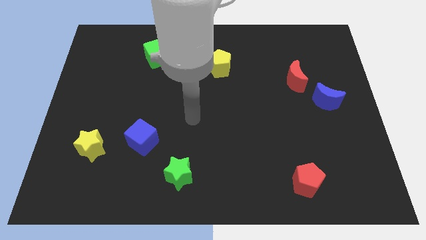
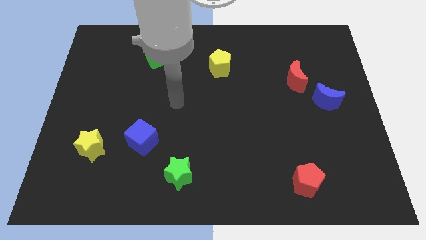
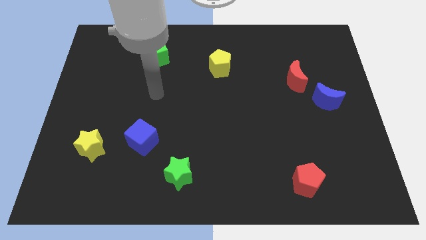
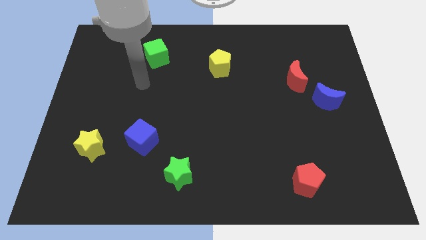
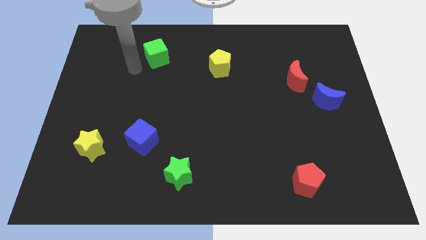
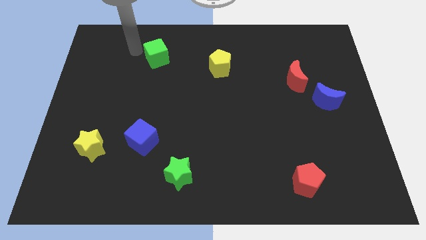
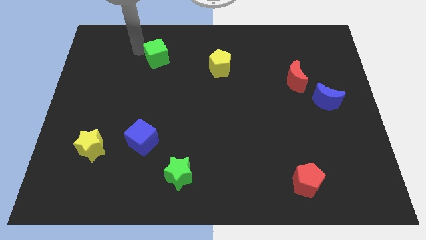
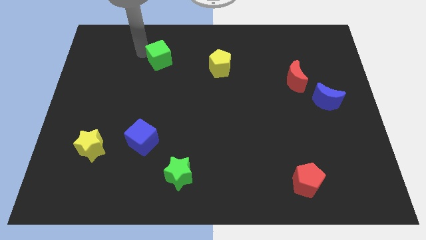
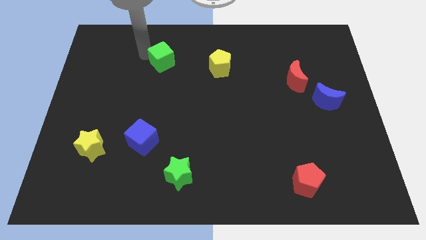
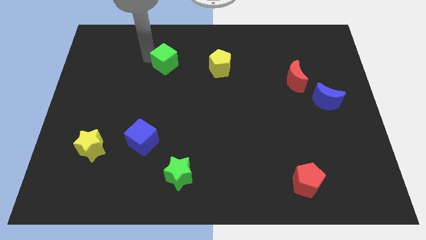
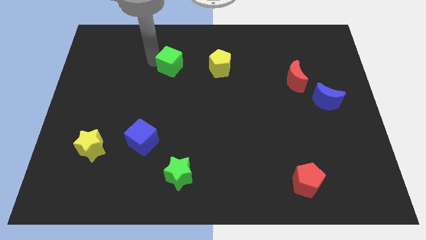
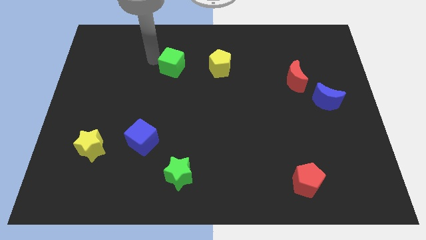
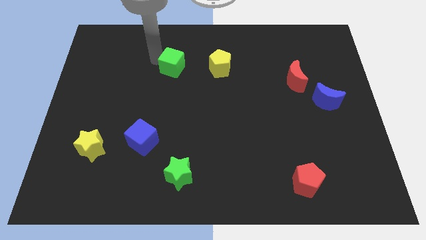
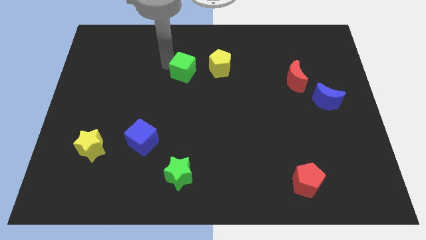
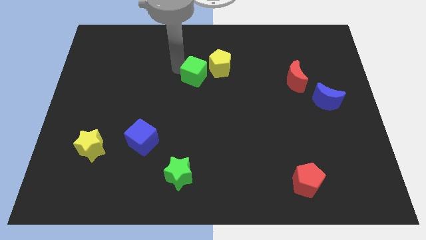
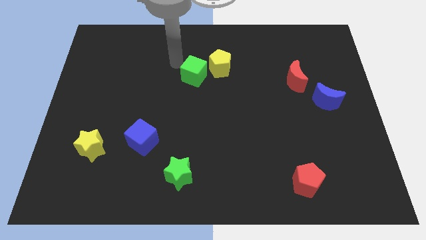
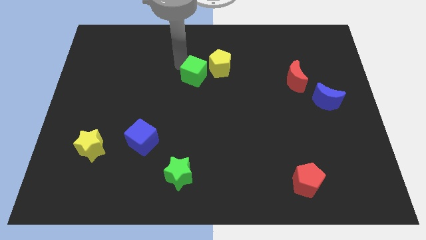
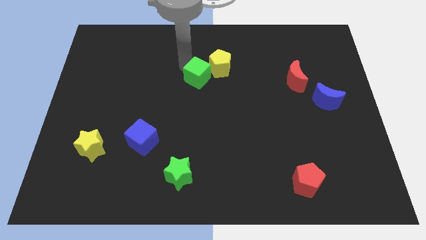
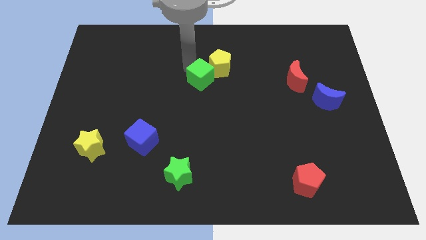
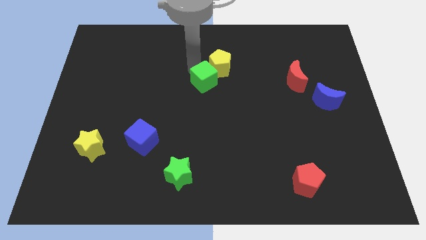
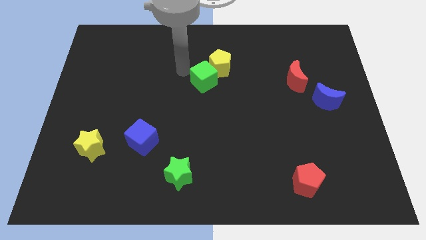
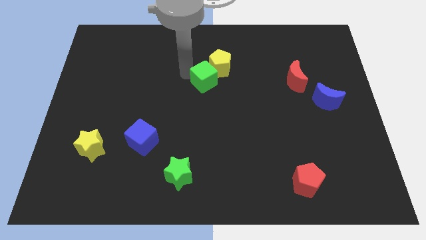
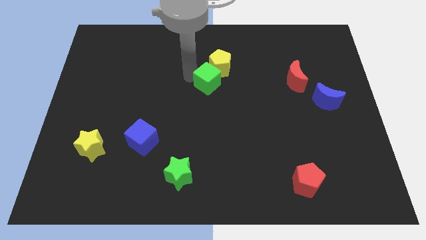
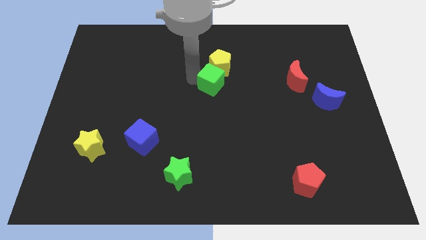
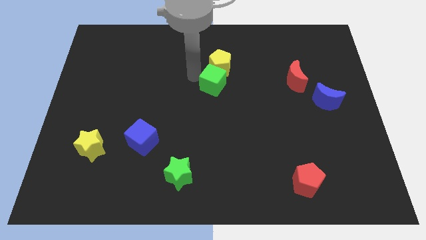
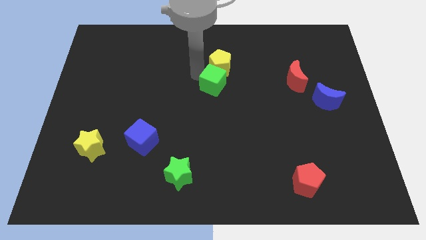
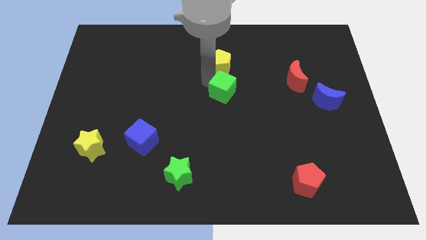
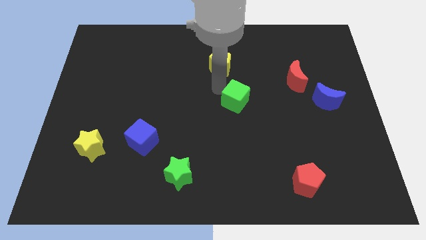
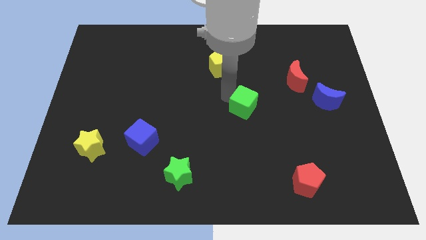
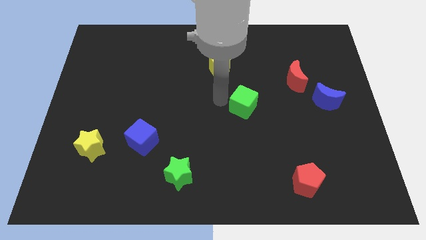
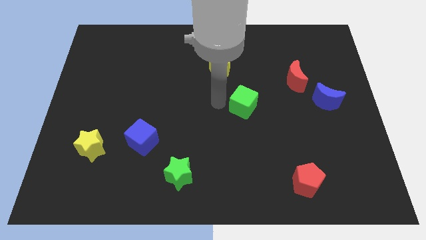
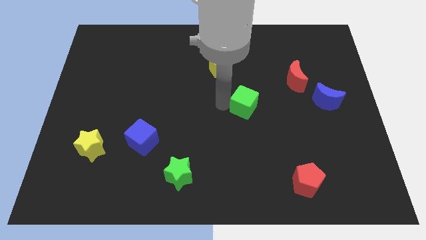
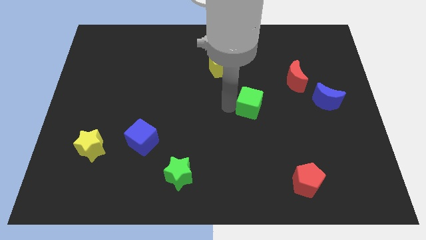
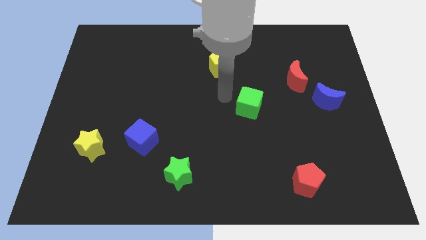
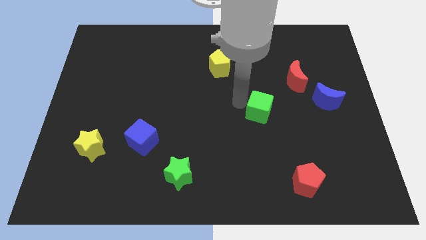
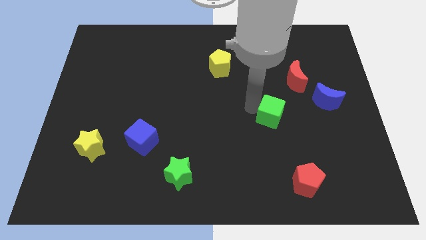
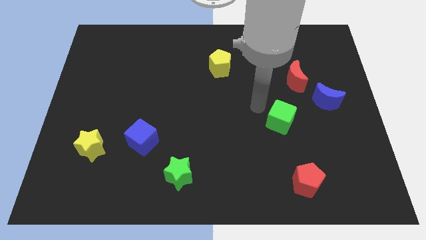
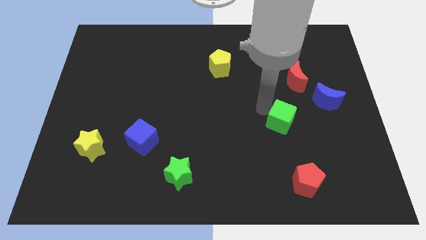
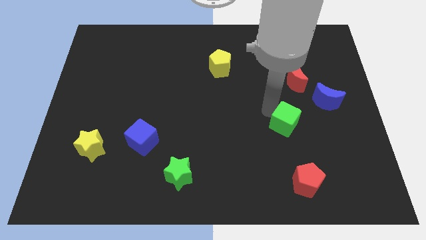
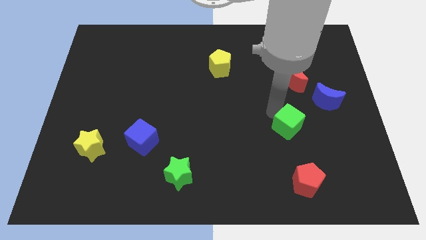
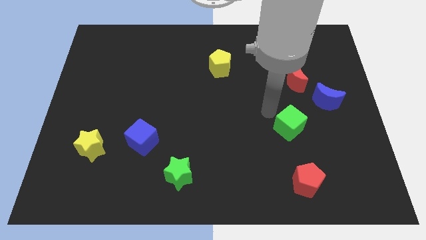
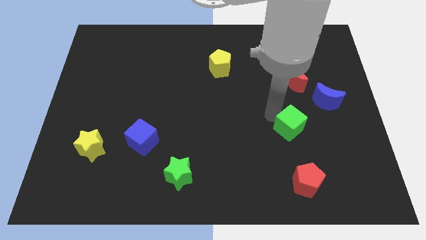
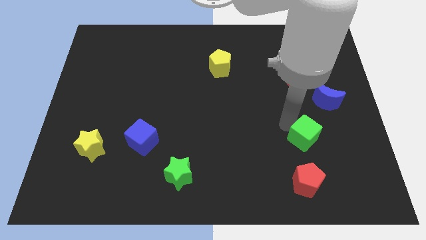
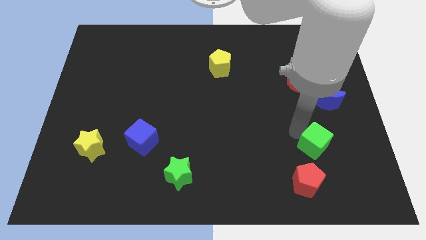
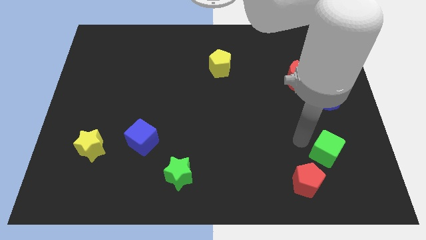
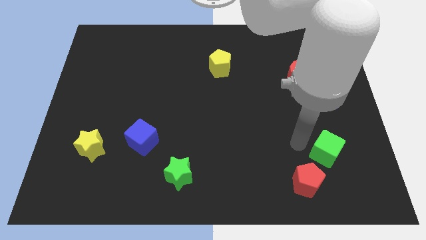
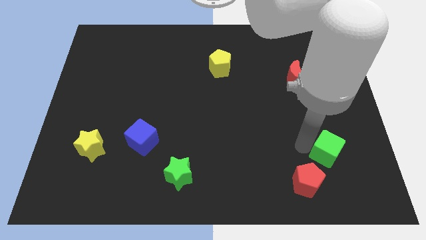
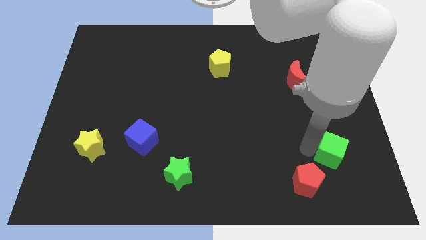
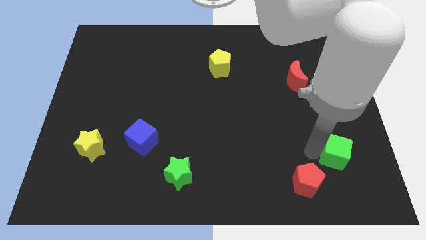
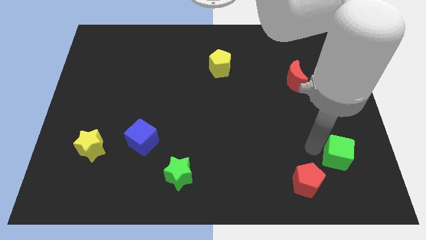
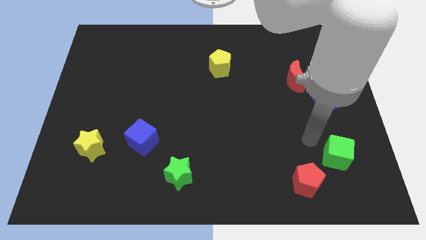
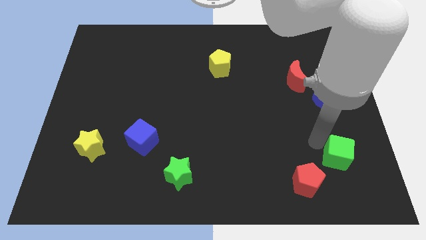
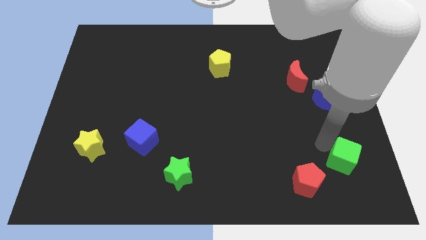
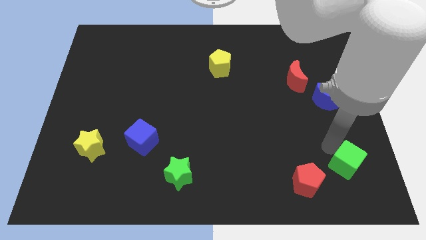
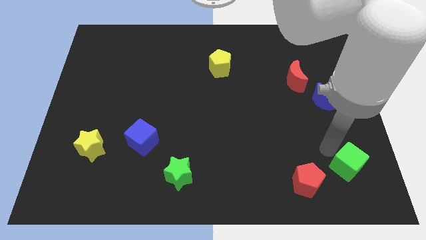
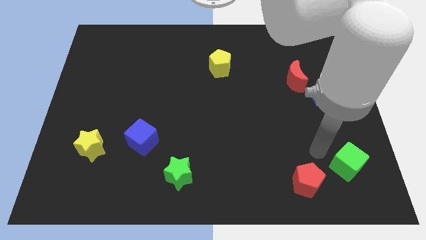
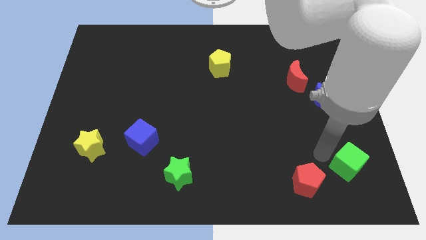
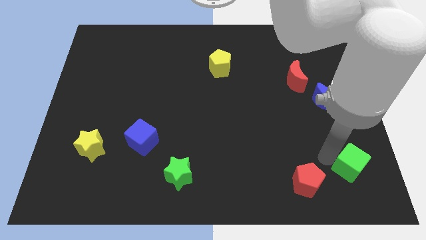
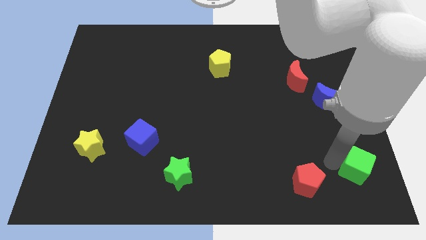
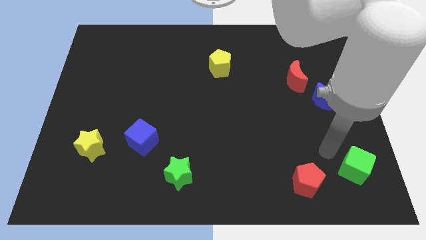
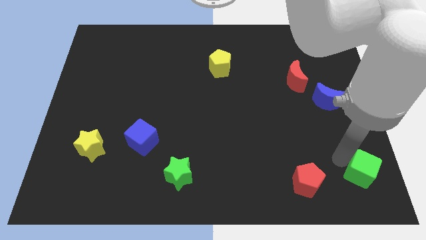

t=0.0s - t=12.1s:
push the green cube to the lower right corner
